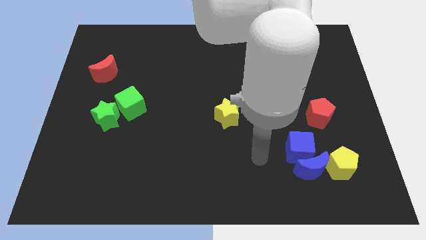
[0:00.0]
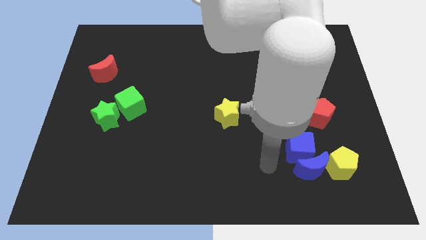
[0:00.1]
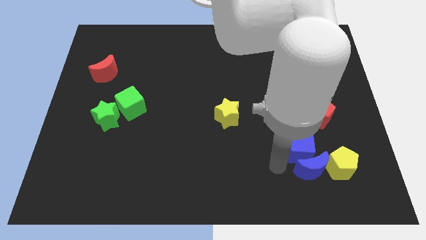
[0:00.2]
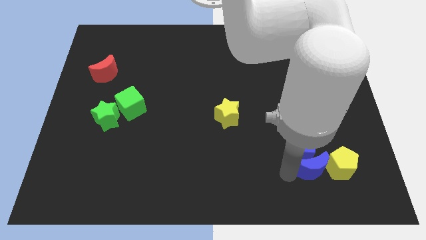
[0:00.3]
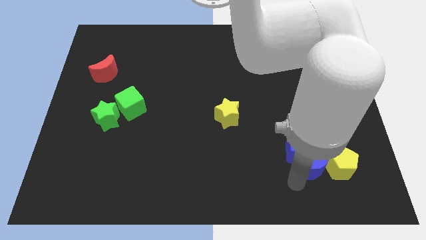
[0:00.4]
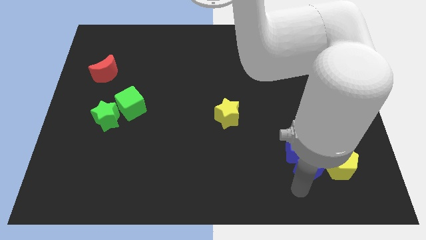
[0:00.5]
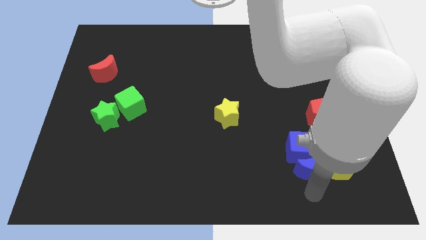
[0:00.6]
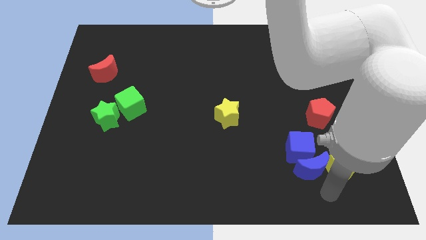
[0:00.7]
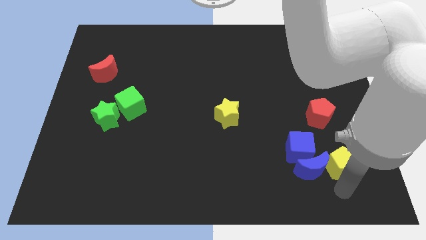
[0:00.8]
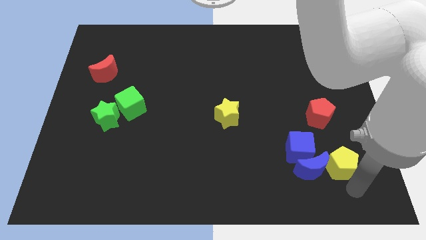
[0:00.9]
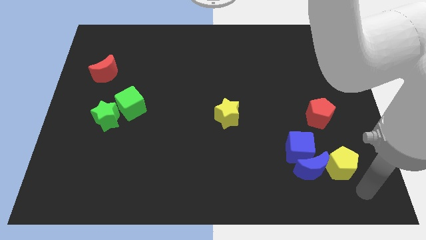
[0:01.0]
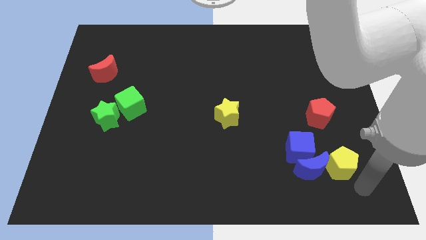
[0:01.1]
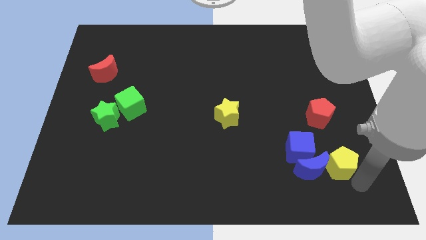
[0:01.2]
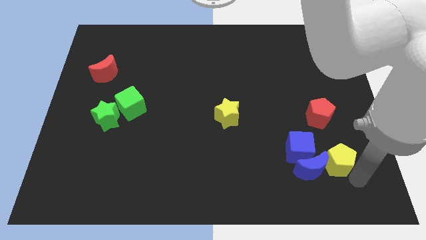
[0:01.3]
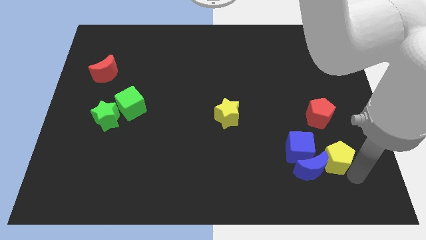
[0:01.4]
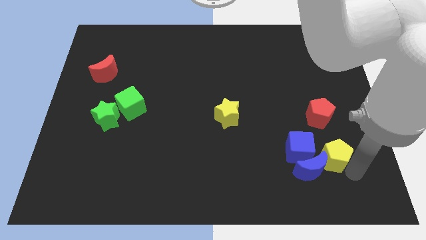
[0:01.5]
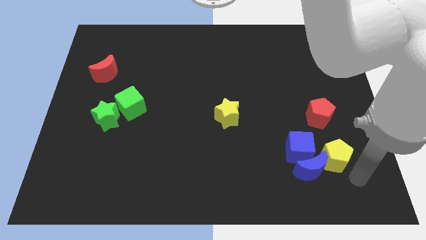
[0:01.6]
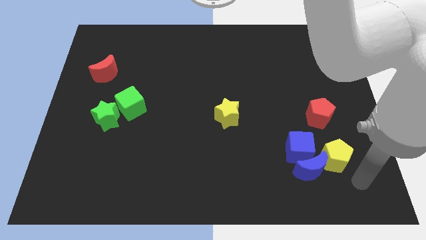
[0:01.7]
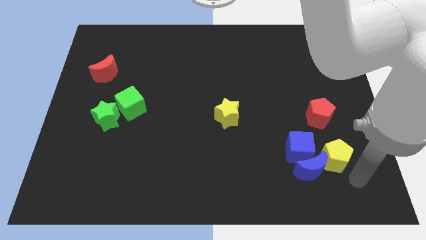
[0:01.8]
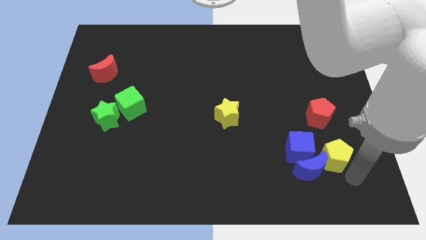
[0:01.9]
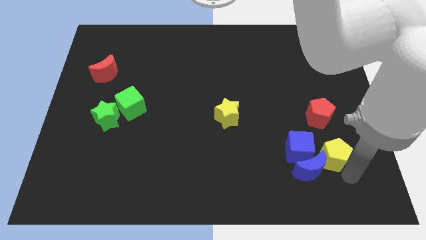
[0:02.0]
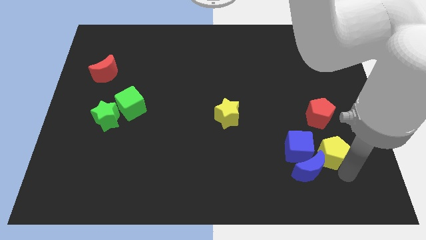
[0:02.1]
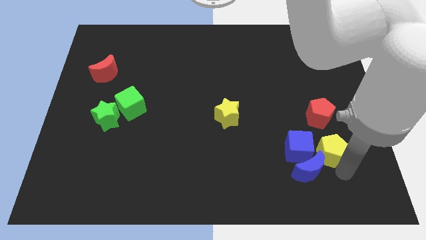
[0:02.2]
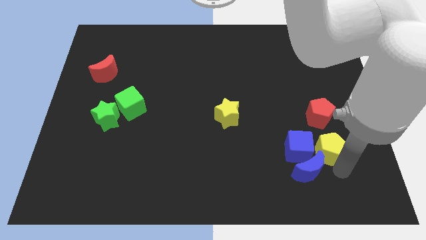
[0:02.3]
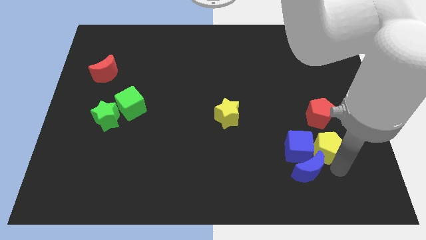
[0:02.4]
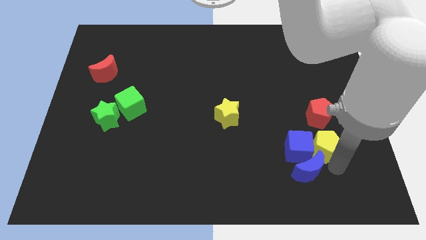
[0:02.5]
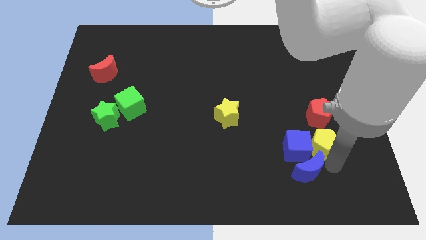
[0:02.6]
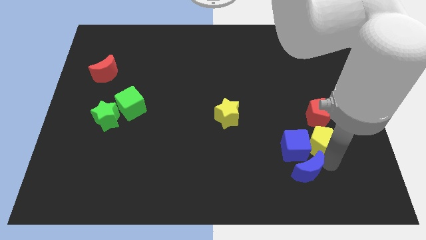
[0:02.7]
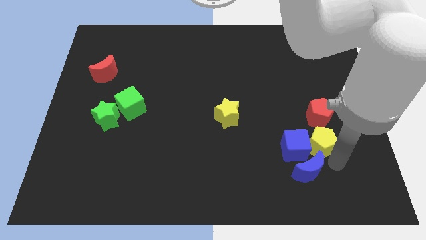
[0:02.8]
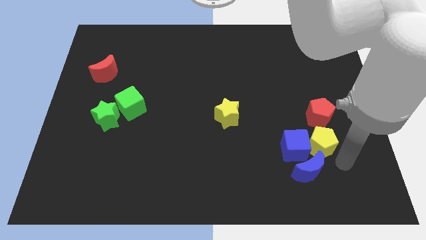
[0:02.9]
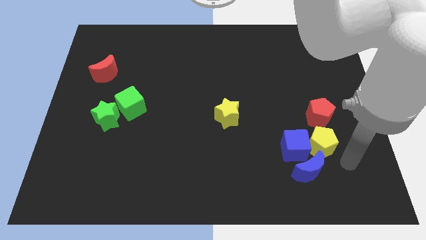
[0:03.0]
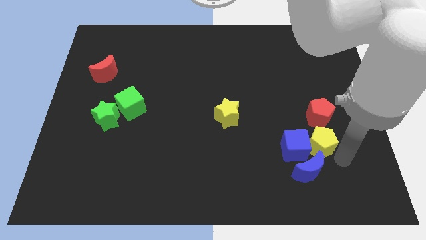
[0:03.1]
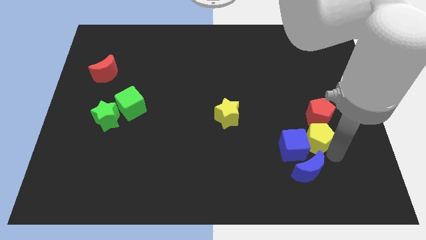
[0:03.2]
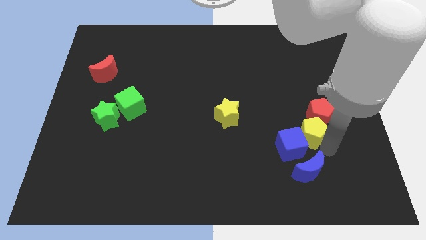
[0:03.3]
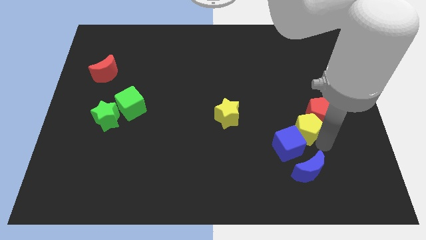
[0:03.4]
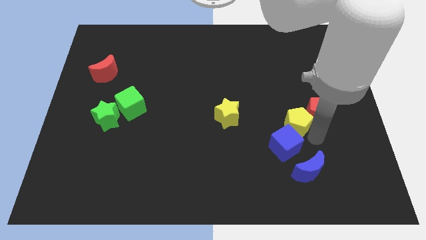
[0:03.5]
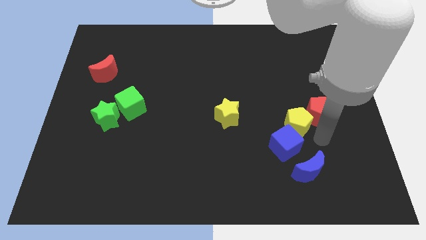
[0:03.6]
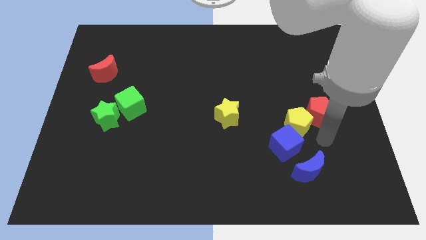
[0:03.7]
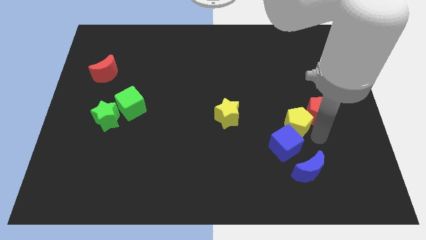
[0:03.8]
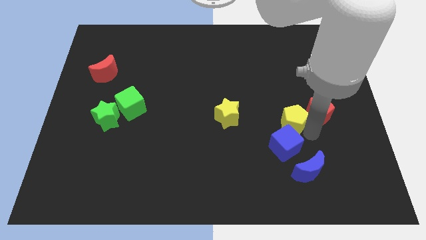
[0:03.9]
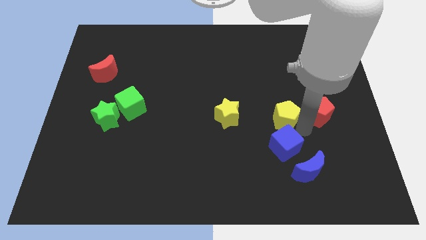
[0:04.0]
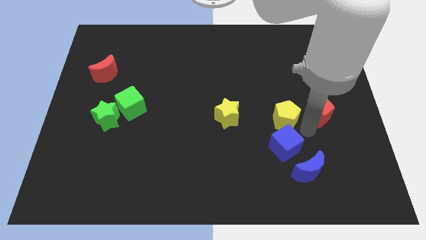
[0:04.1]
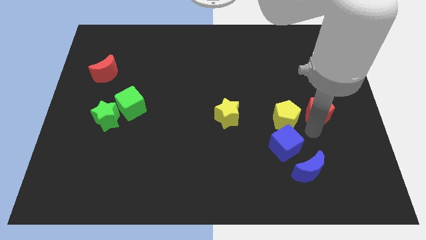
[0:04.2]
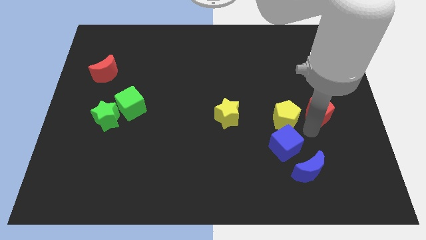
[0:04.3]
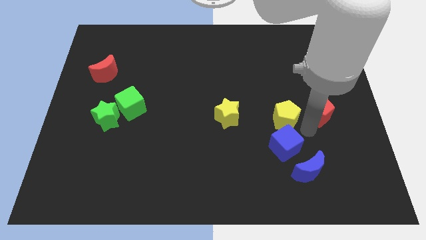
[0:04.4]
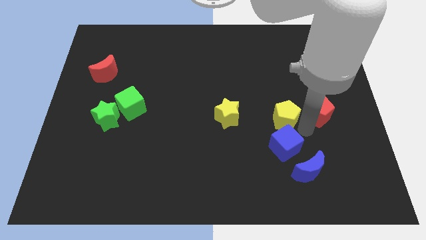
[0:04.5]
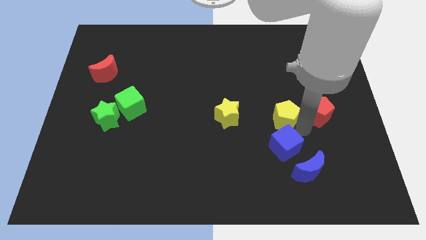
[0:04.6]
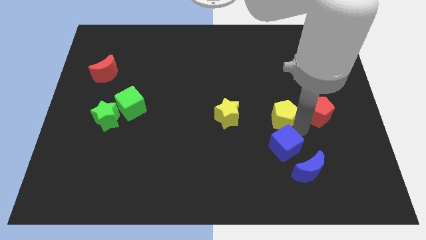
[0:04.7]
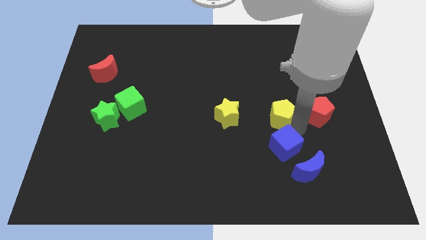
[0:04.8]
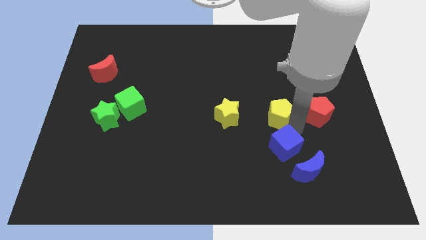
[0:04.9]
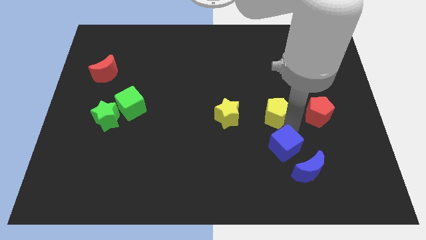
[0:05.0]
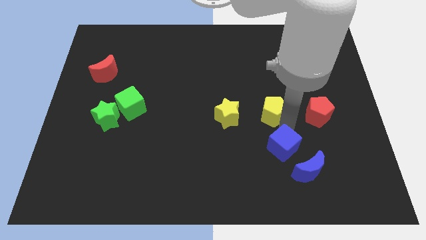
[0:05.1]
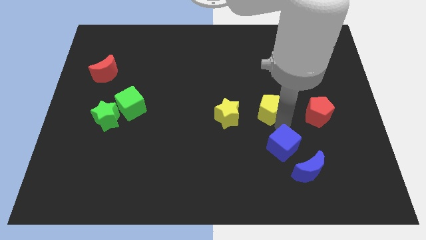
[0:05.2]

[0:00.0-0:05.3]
slide the yellow pentagon upwards and left diagonally

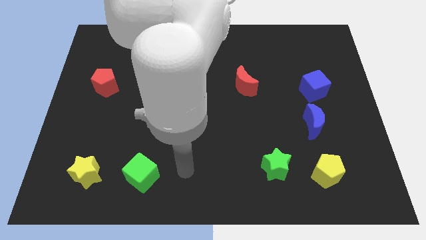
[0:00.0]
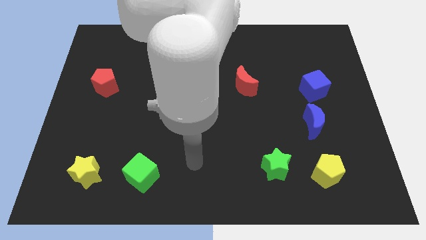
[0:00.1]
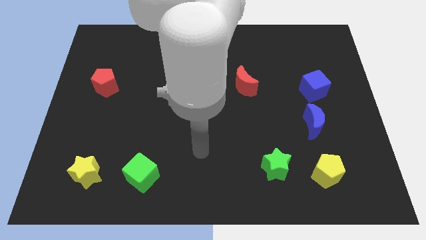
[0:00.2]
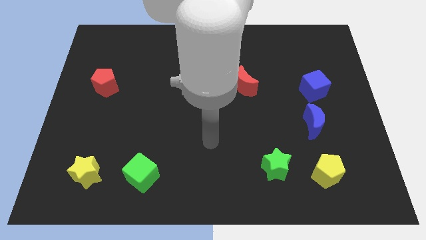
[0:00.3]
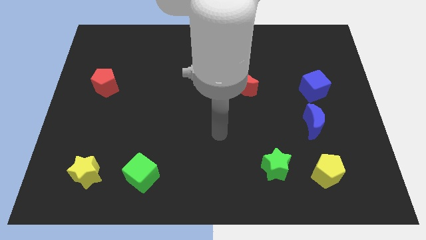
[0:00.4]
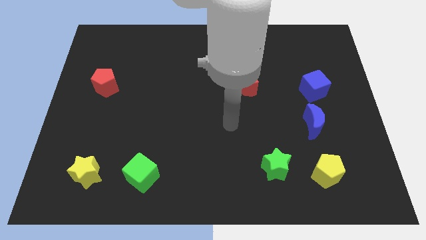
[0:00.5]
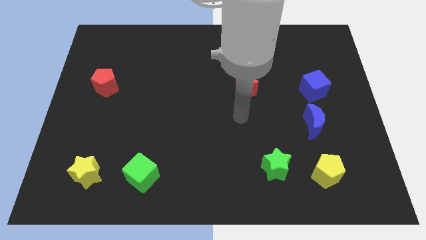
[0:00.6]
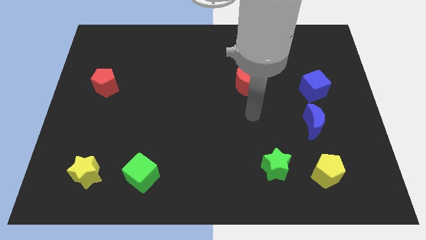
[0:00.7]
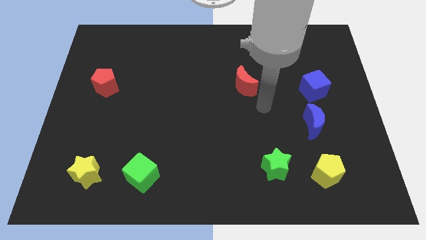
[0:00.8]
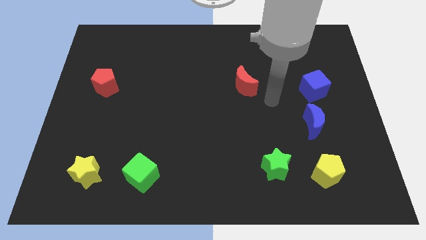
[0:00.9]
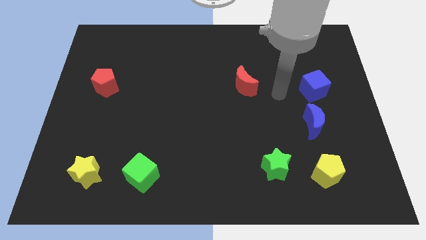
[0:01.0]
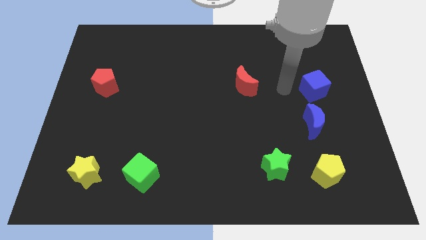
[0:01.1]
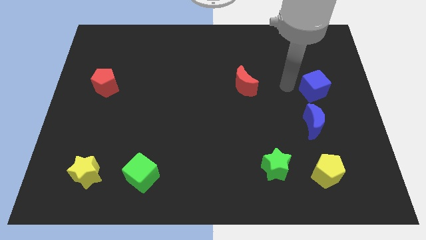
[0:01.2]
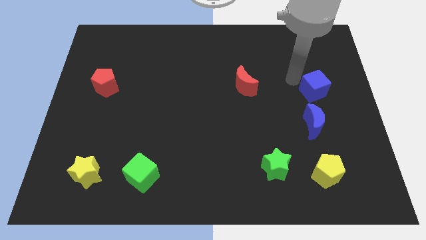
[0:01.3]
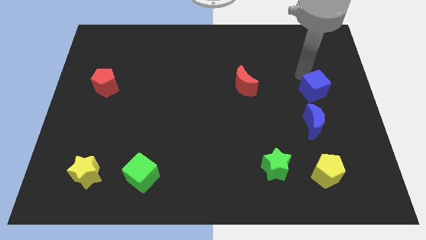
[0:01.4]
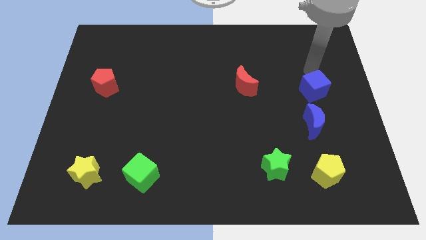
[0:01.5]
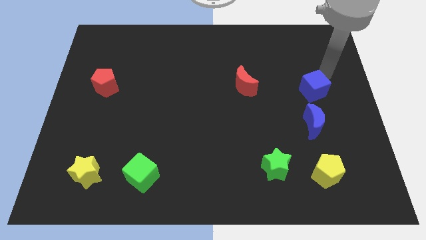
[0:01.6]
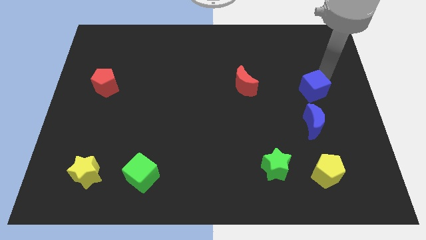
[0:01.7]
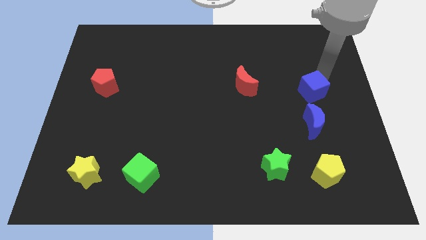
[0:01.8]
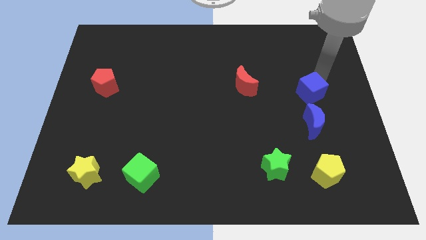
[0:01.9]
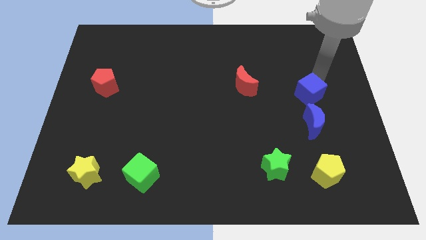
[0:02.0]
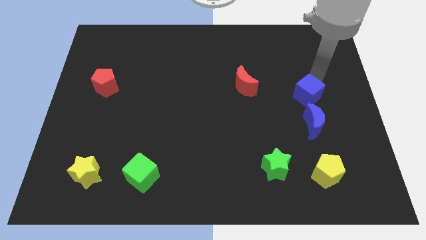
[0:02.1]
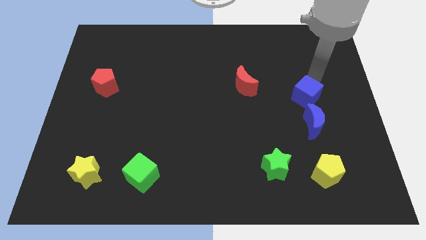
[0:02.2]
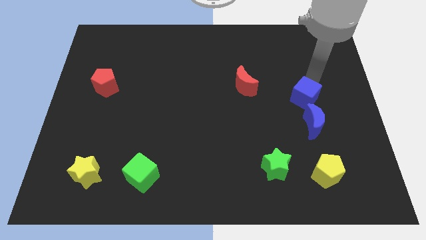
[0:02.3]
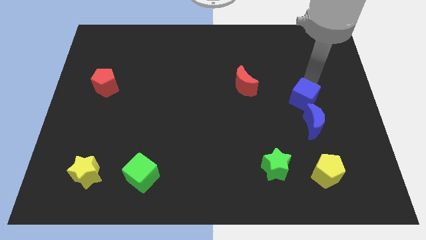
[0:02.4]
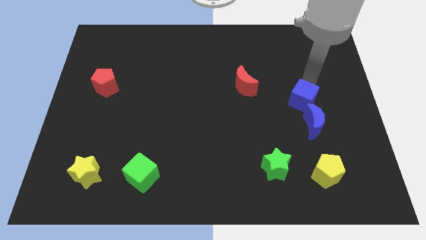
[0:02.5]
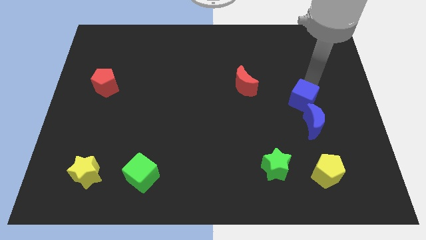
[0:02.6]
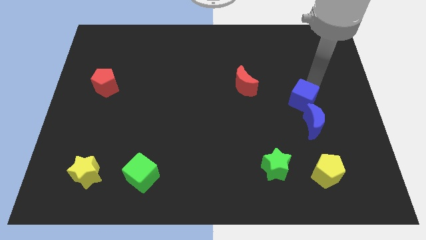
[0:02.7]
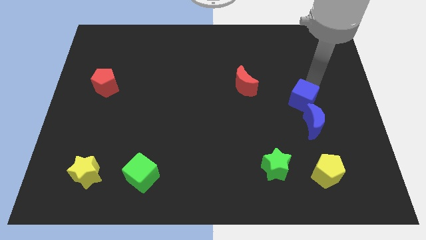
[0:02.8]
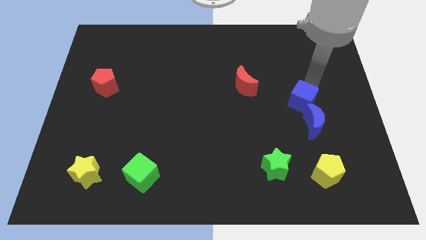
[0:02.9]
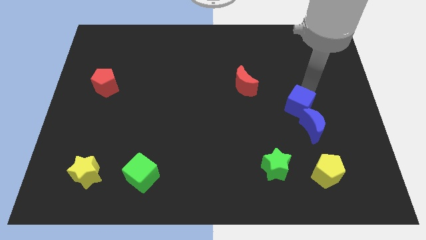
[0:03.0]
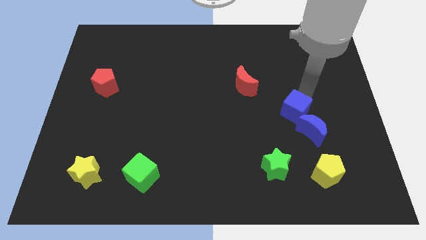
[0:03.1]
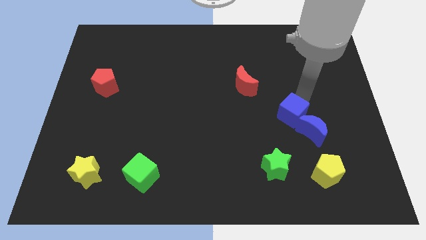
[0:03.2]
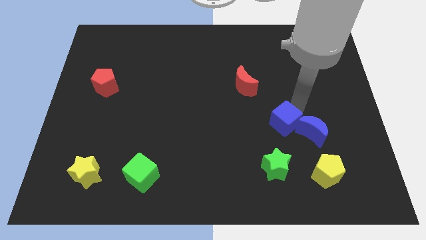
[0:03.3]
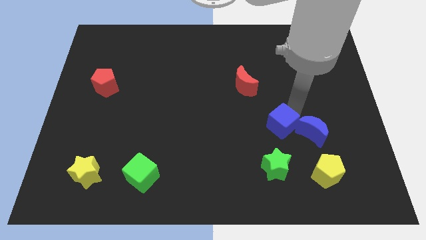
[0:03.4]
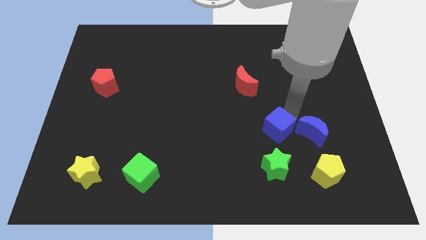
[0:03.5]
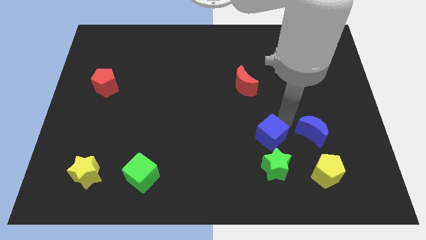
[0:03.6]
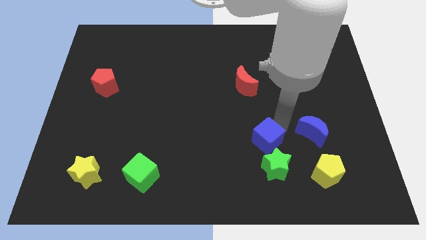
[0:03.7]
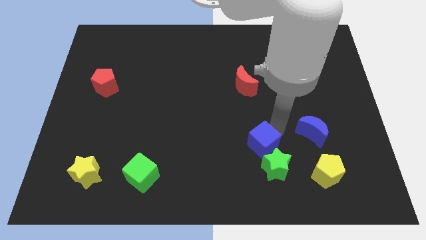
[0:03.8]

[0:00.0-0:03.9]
move the blue cube downwards and then left
